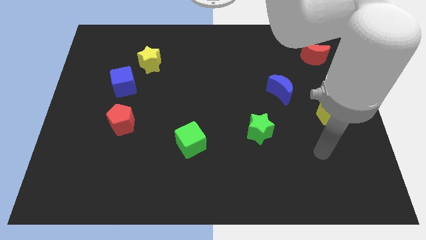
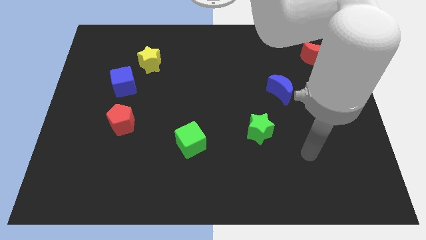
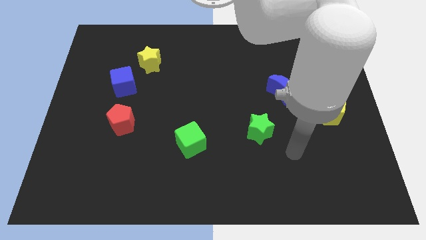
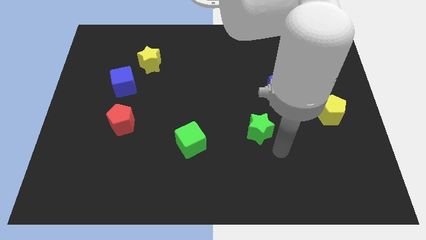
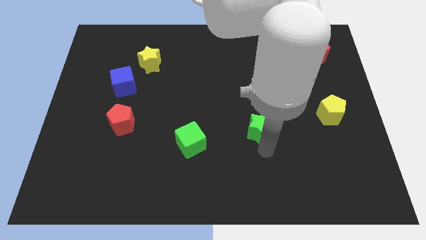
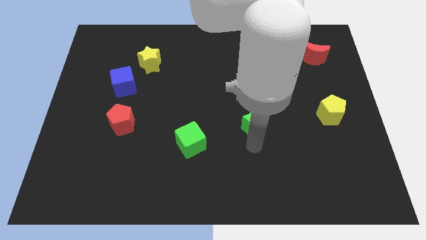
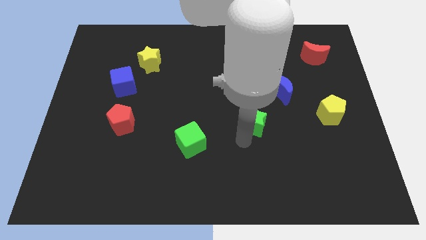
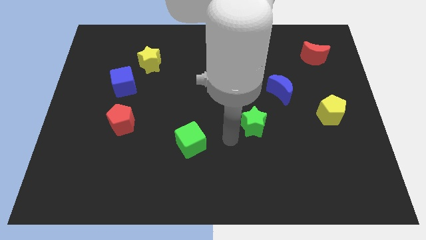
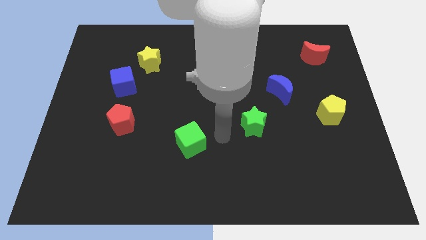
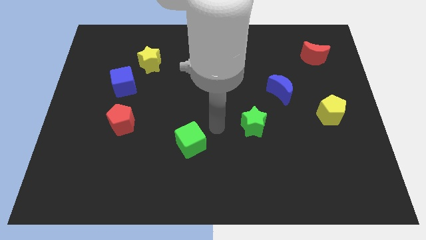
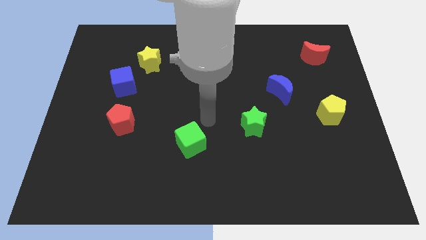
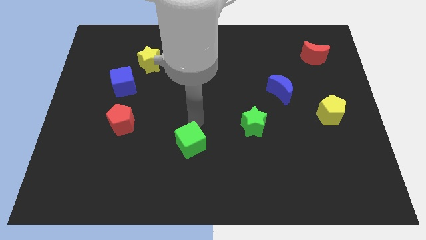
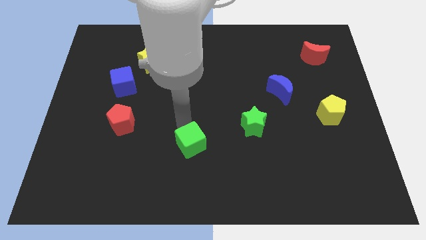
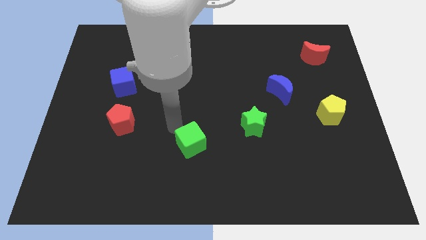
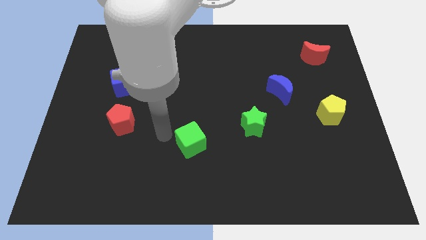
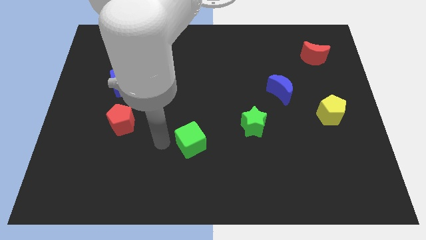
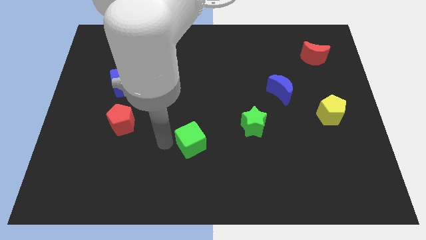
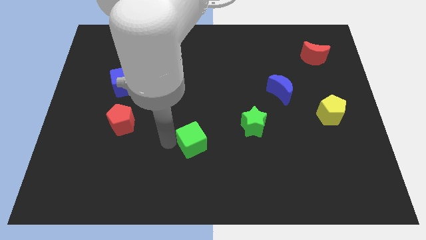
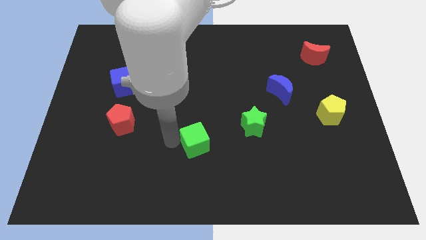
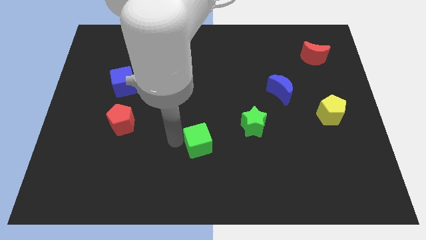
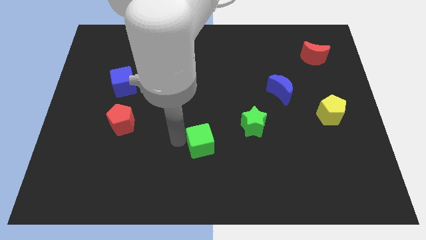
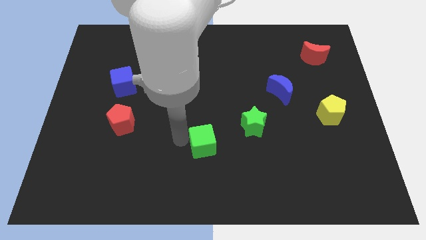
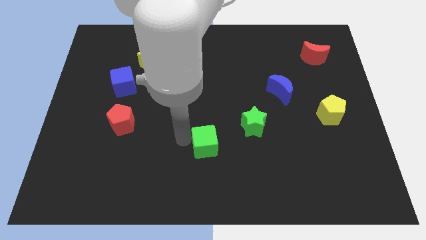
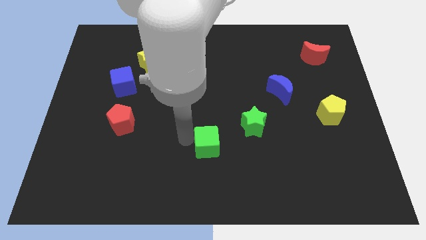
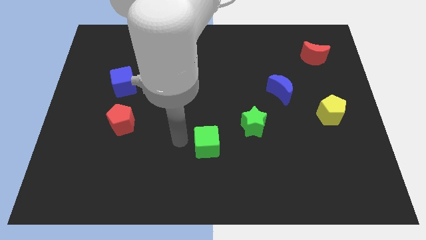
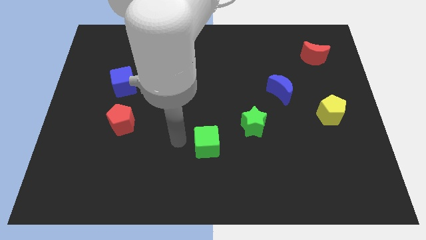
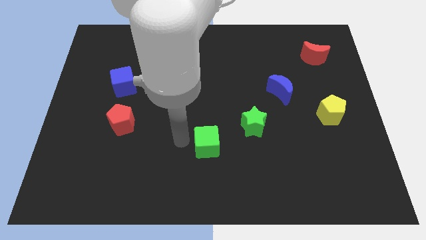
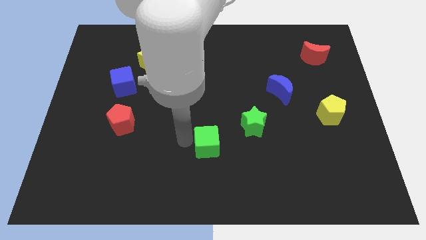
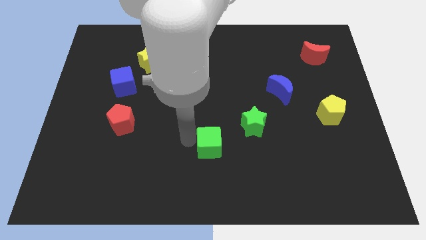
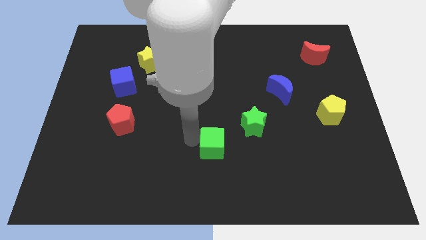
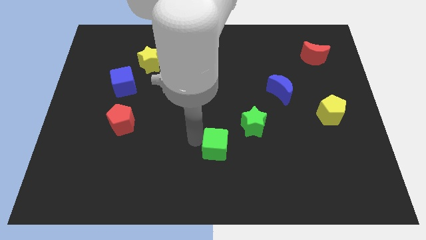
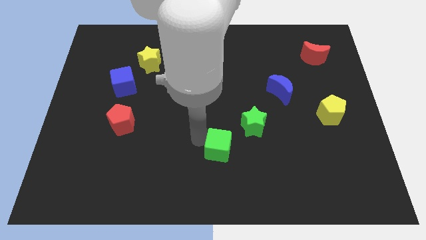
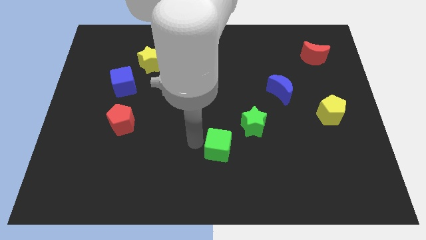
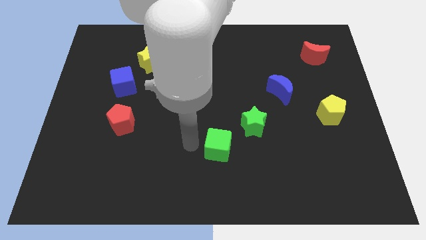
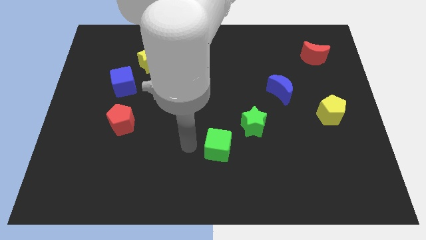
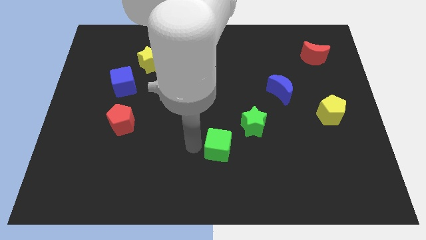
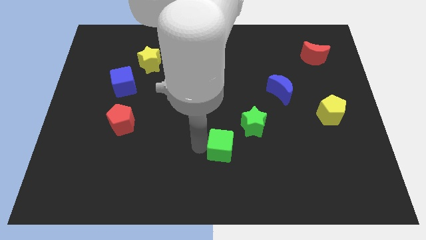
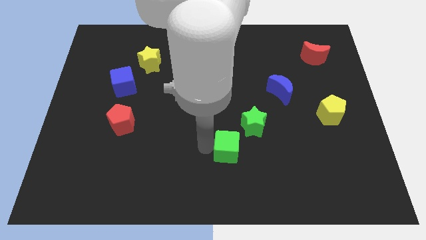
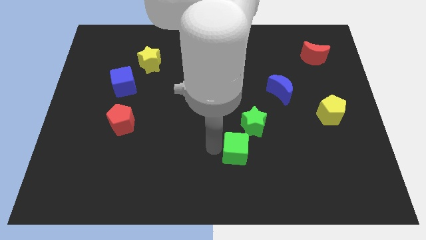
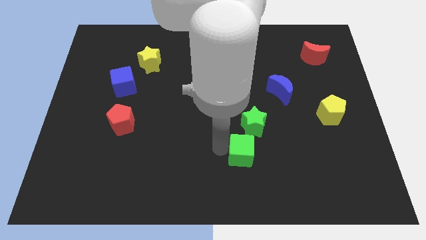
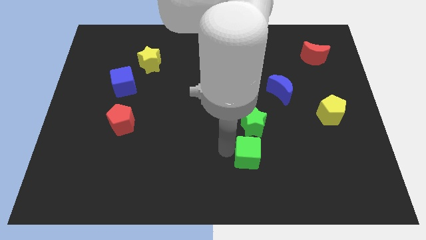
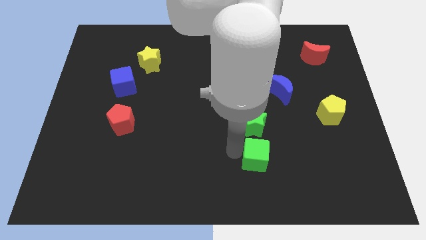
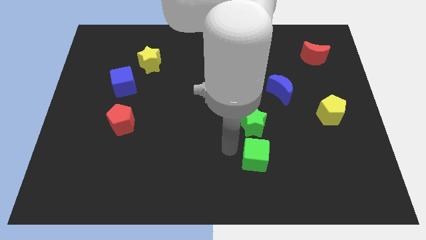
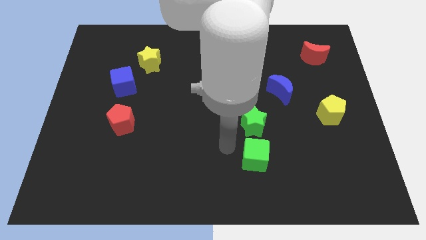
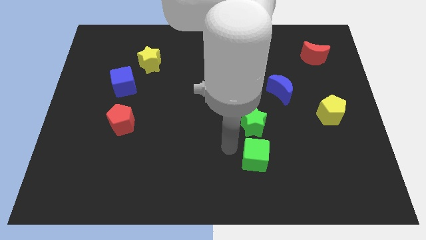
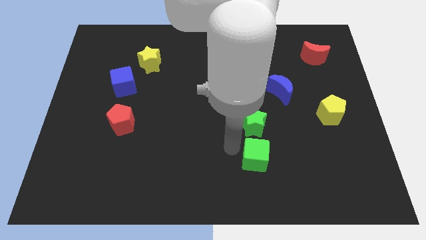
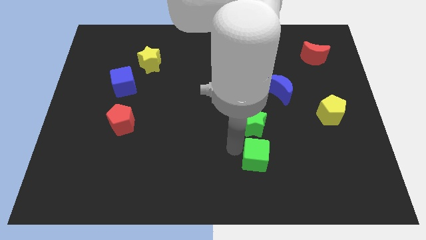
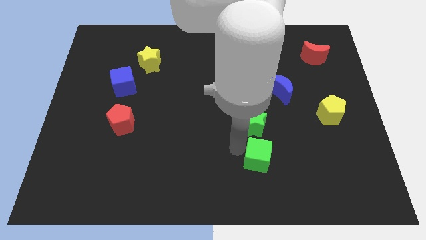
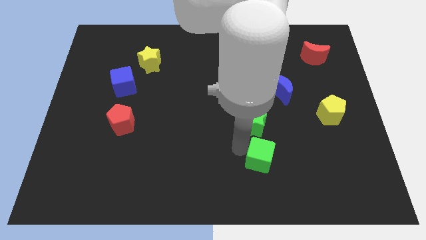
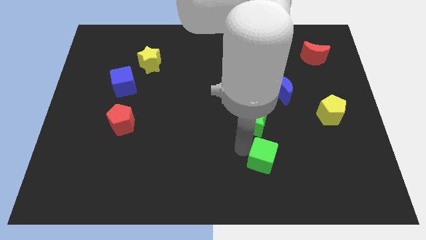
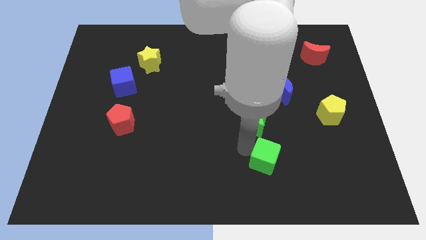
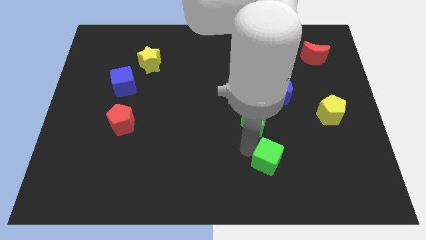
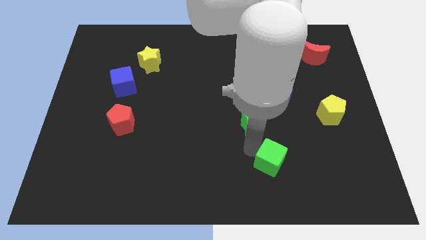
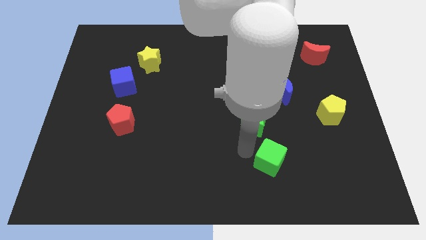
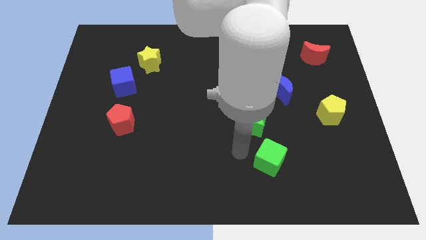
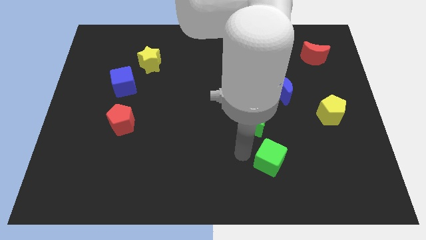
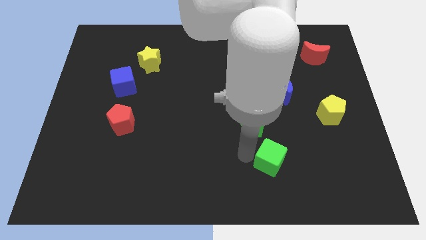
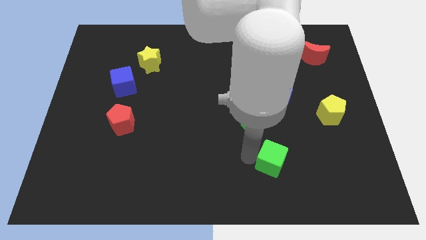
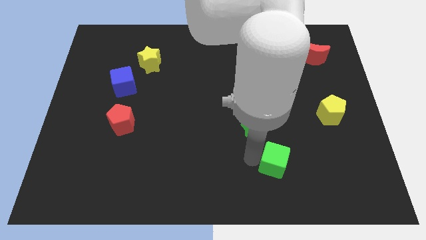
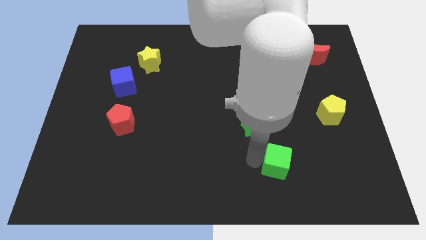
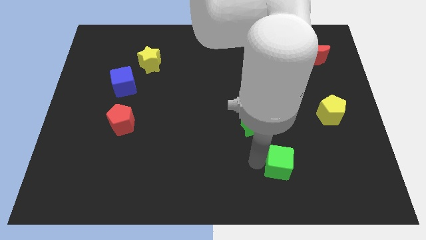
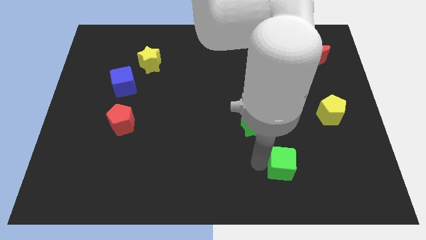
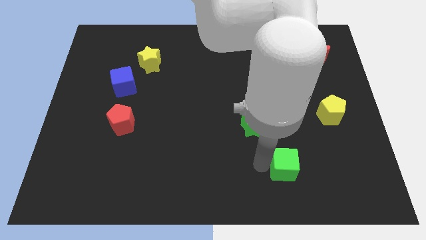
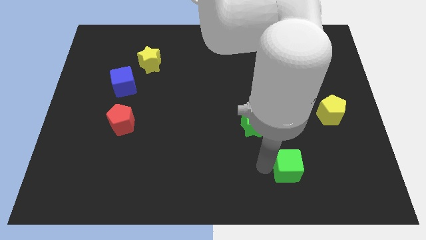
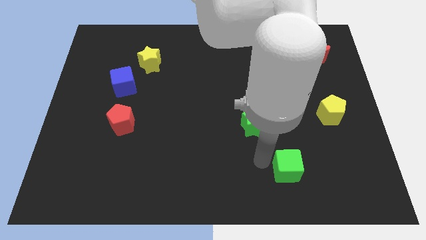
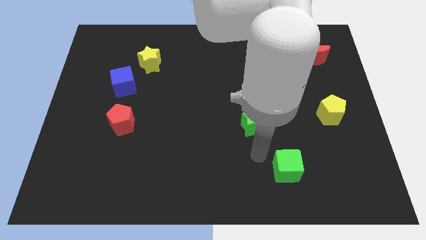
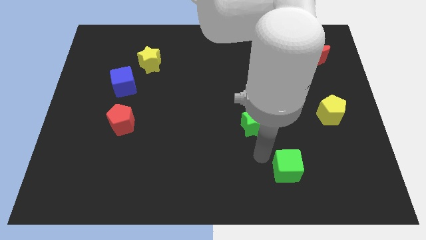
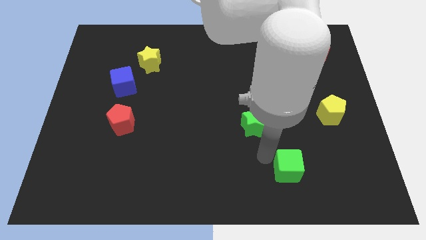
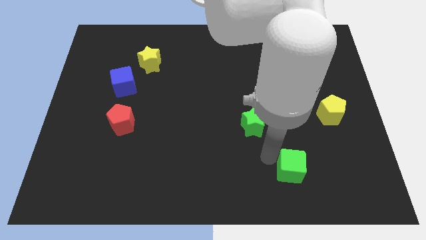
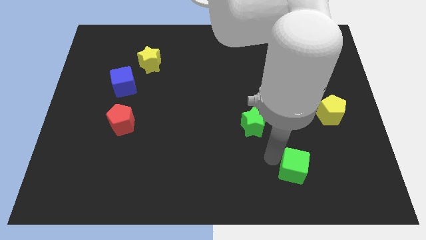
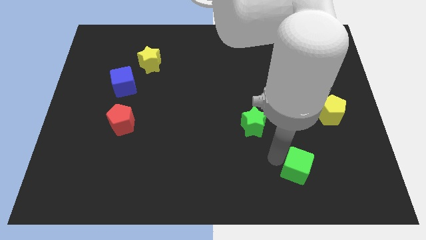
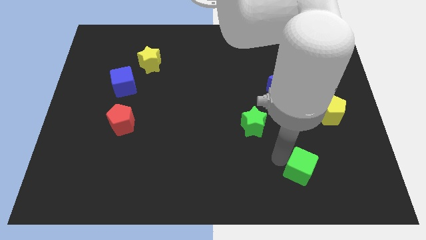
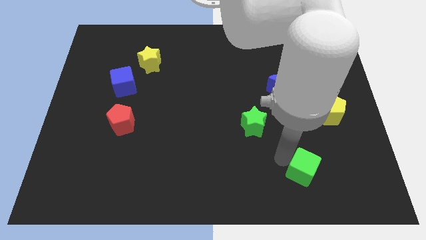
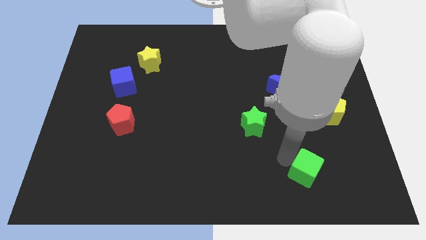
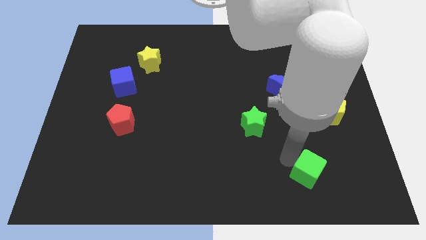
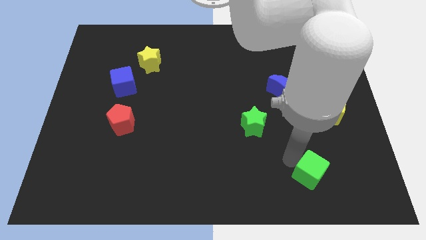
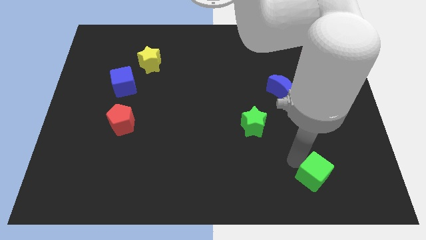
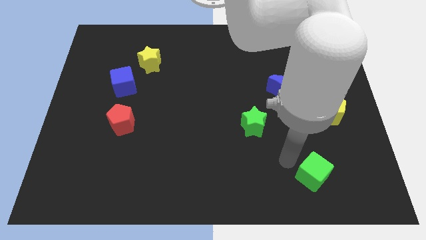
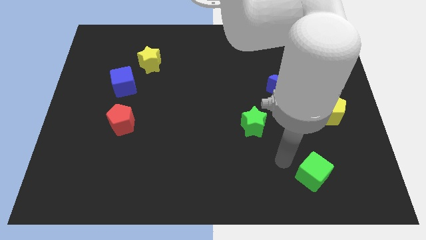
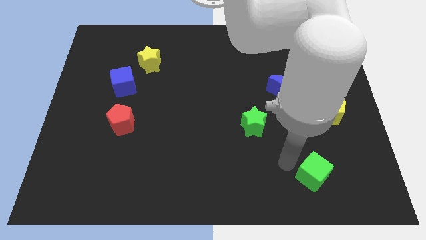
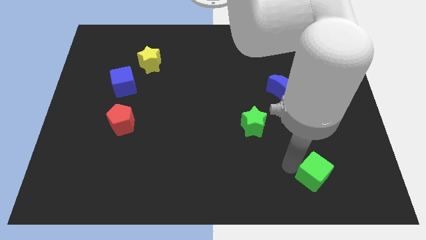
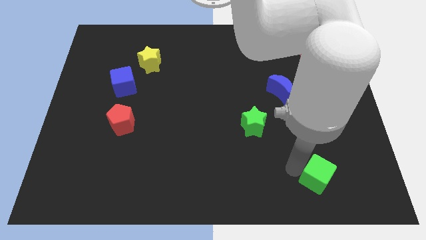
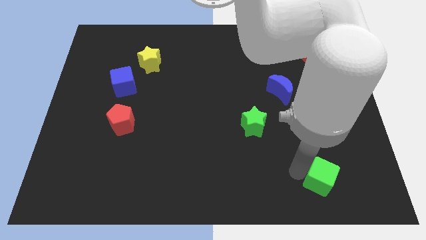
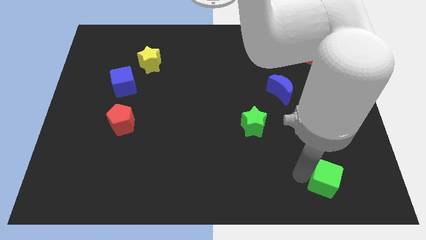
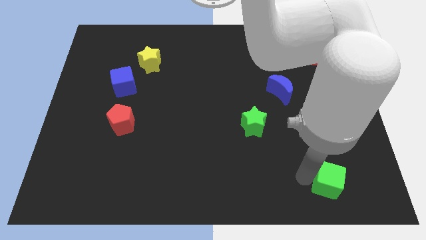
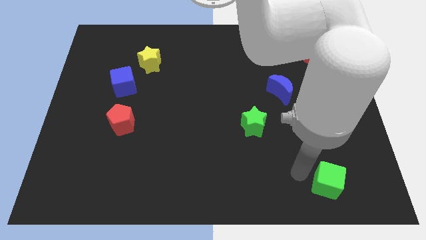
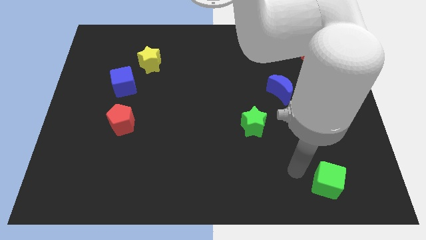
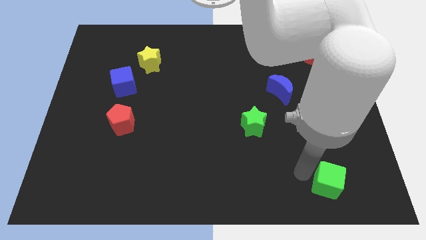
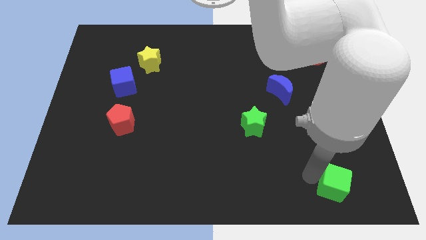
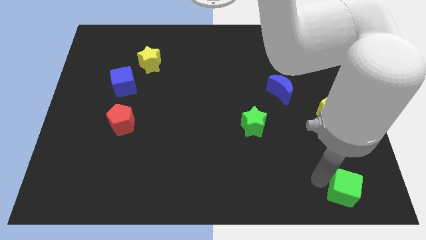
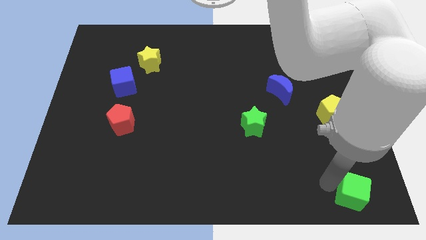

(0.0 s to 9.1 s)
slide the green cube to the lower right corner
